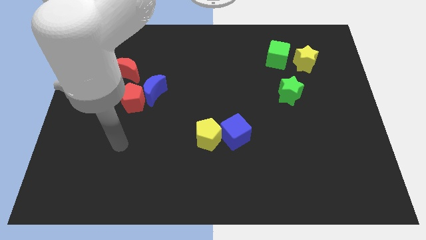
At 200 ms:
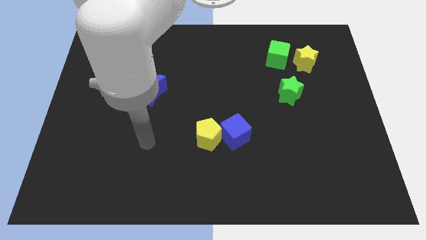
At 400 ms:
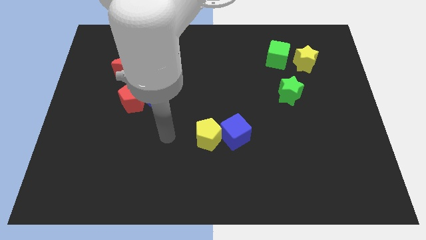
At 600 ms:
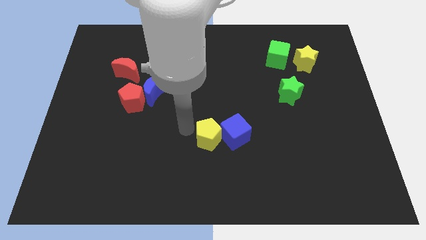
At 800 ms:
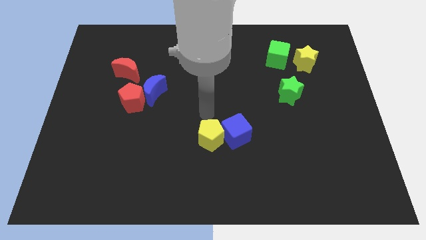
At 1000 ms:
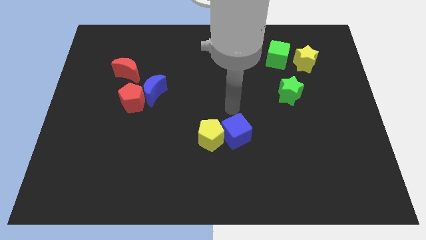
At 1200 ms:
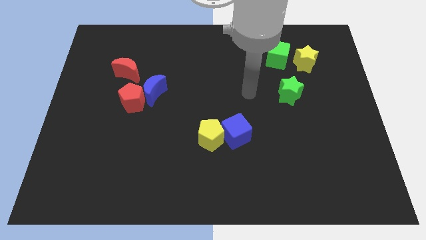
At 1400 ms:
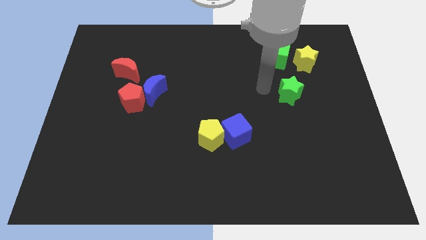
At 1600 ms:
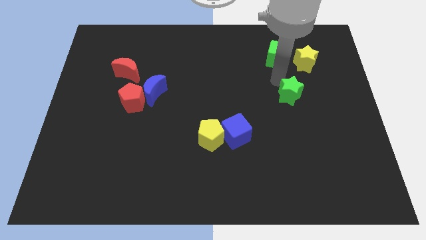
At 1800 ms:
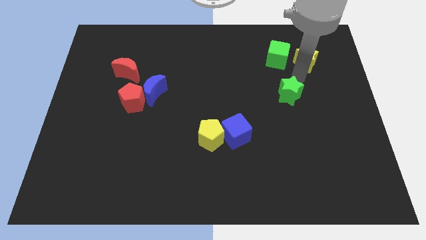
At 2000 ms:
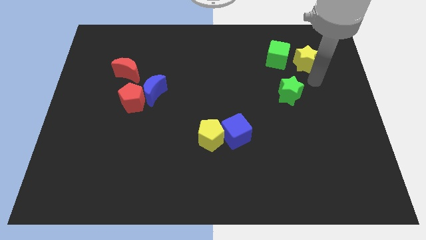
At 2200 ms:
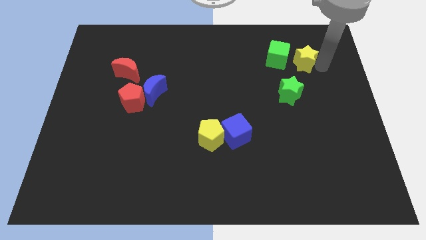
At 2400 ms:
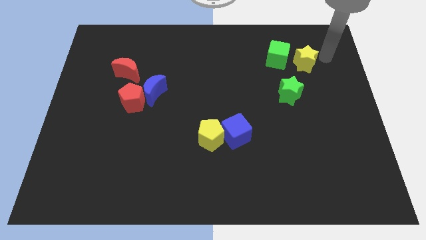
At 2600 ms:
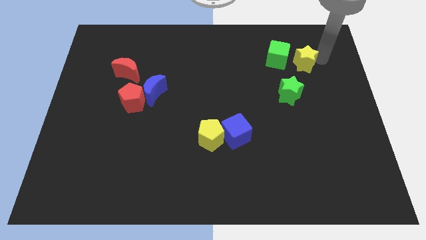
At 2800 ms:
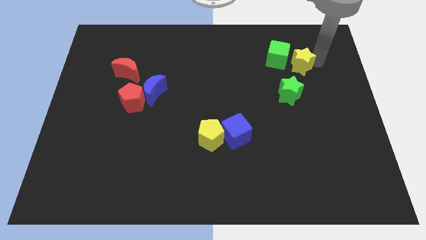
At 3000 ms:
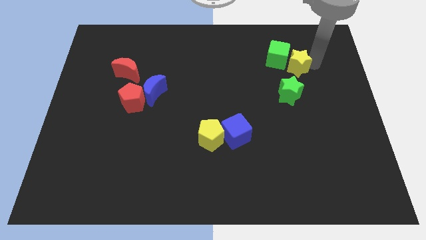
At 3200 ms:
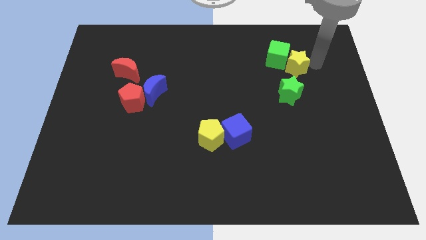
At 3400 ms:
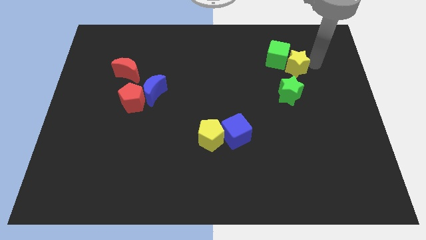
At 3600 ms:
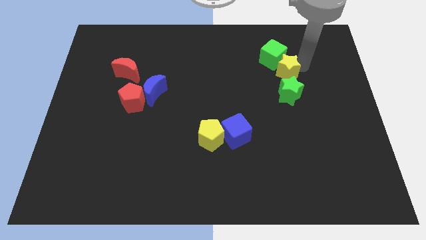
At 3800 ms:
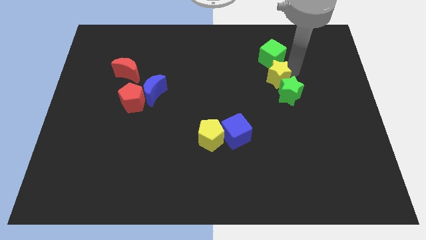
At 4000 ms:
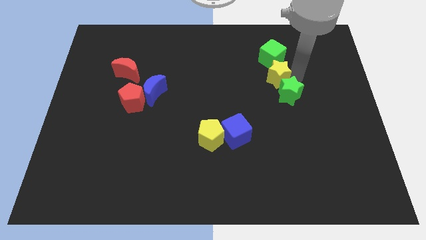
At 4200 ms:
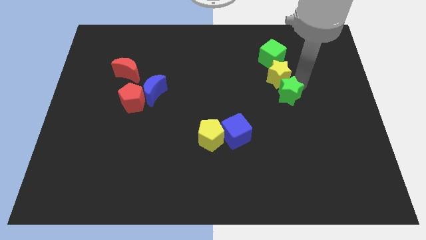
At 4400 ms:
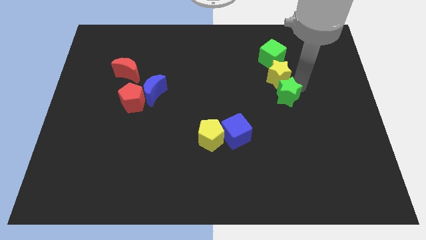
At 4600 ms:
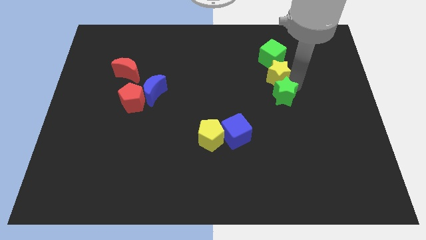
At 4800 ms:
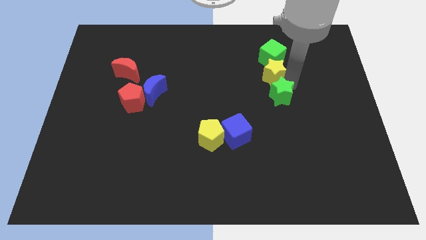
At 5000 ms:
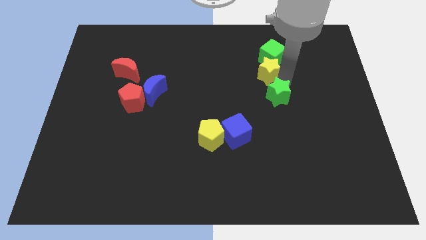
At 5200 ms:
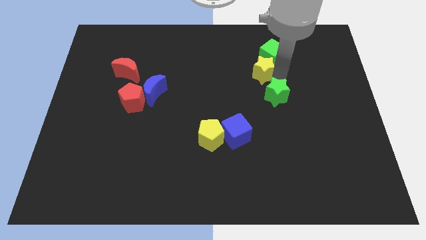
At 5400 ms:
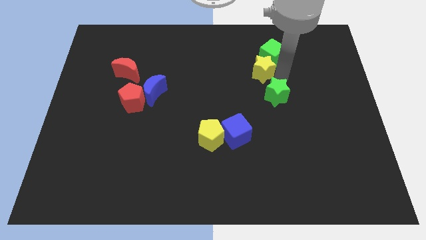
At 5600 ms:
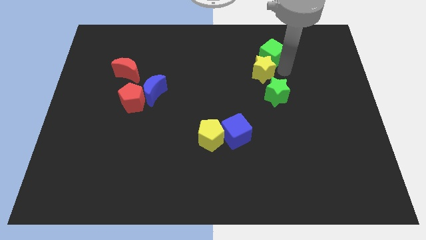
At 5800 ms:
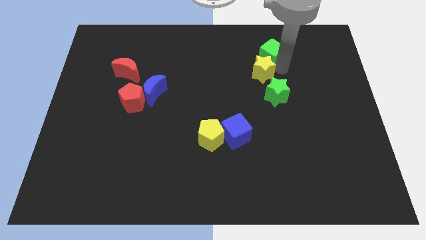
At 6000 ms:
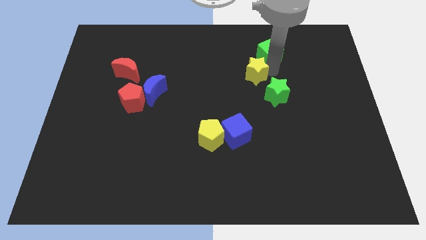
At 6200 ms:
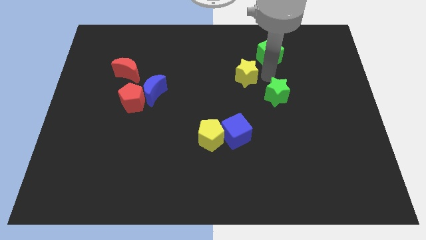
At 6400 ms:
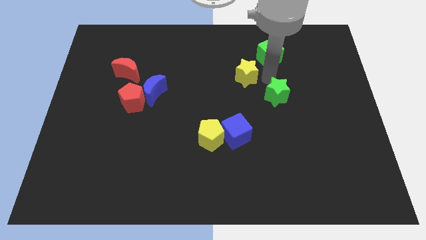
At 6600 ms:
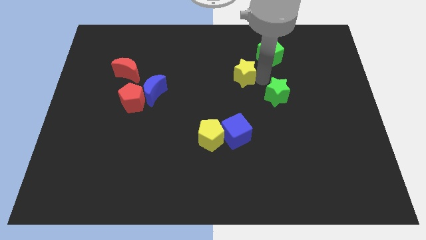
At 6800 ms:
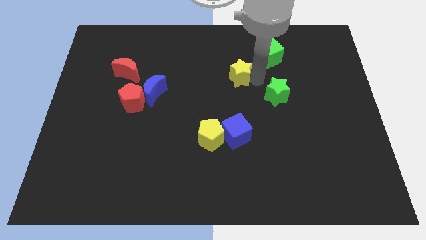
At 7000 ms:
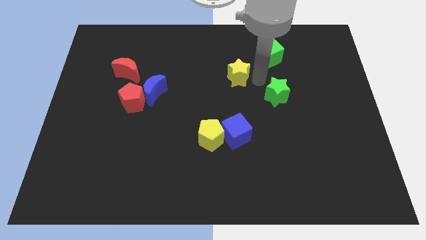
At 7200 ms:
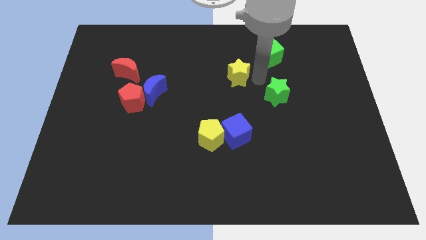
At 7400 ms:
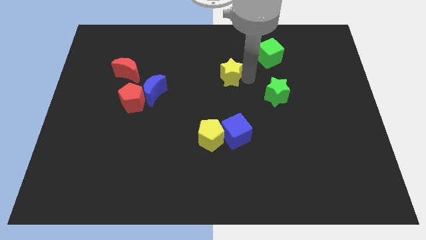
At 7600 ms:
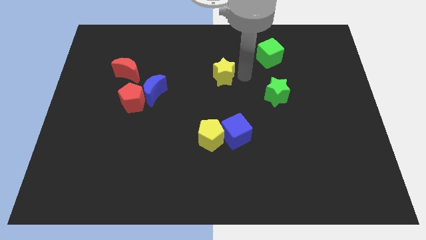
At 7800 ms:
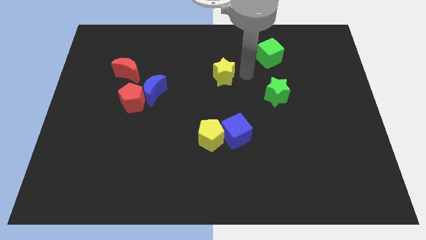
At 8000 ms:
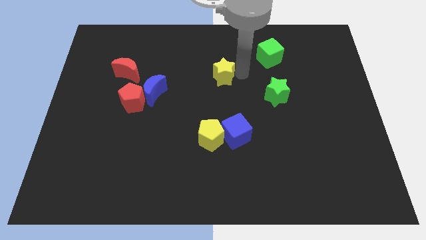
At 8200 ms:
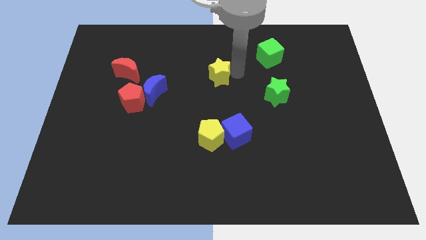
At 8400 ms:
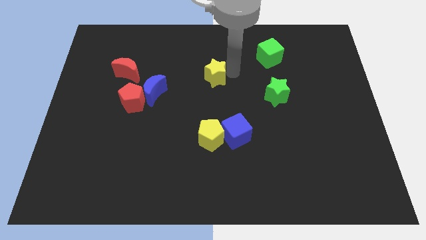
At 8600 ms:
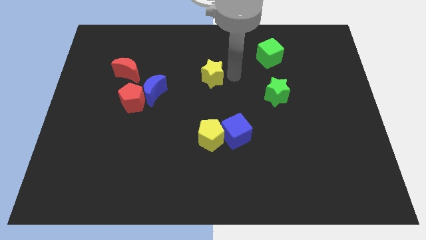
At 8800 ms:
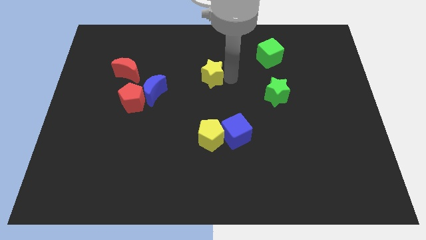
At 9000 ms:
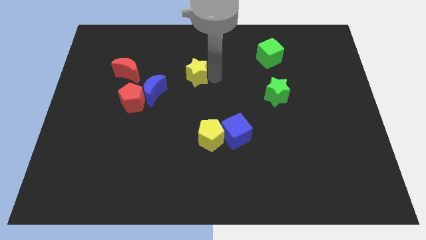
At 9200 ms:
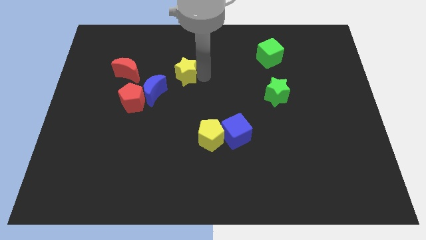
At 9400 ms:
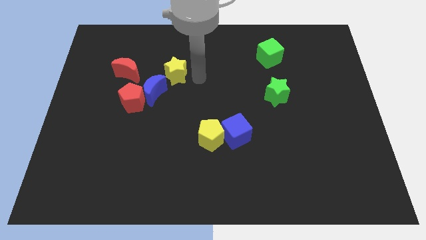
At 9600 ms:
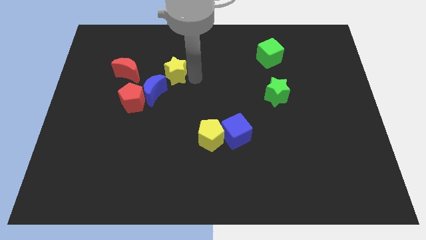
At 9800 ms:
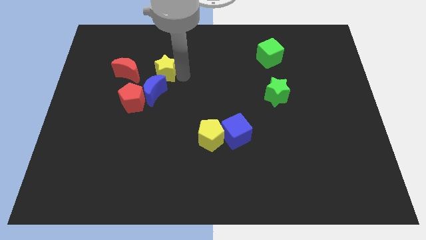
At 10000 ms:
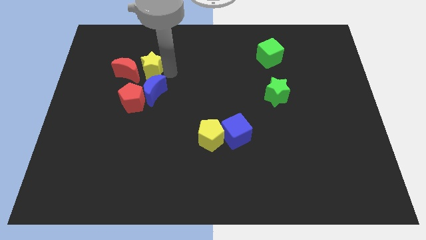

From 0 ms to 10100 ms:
move the yellow star to the red moon

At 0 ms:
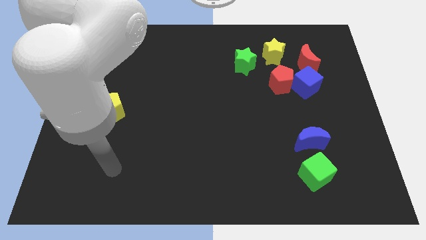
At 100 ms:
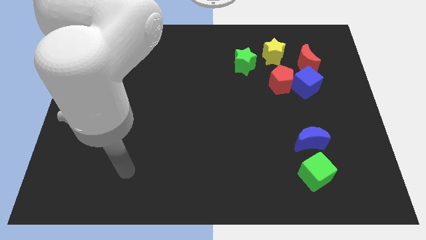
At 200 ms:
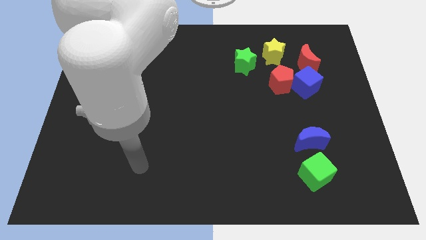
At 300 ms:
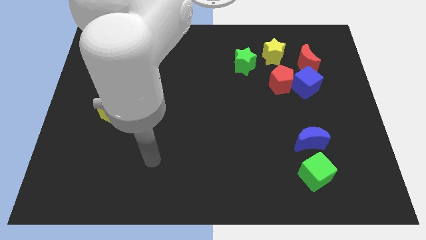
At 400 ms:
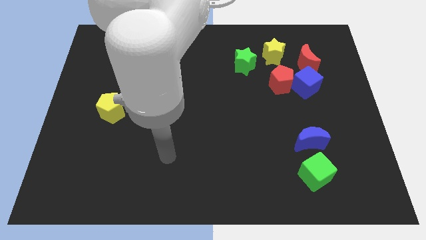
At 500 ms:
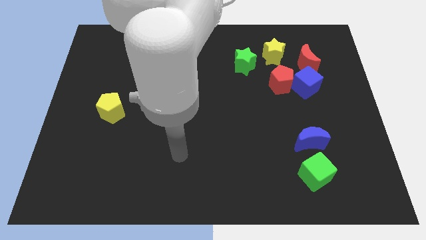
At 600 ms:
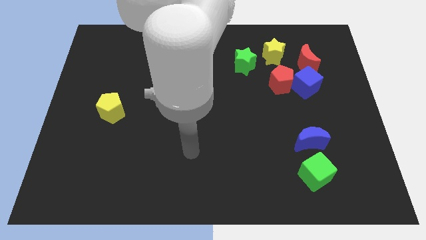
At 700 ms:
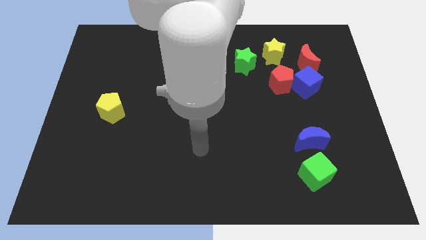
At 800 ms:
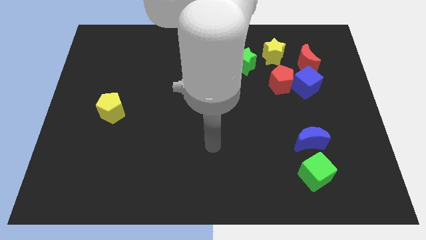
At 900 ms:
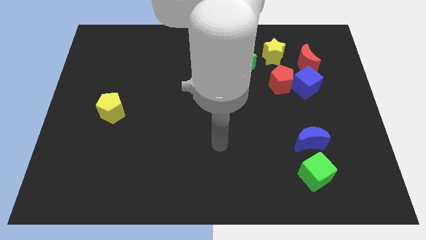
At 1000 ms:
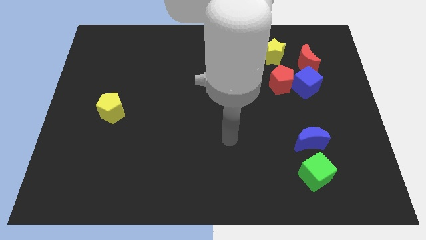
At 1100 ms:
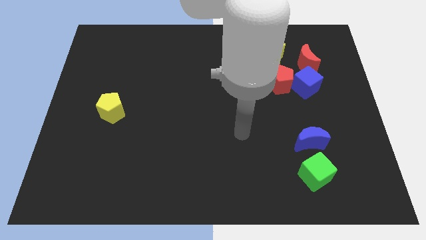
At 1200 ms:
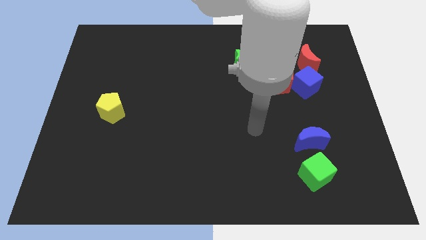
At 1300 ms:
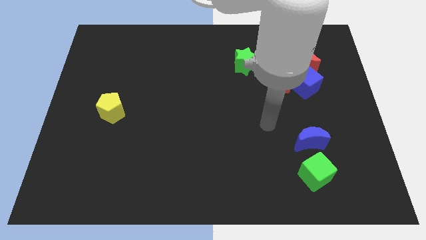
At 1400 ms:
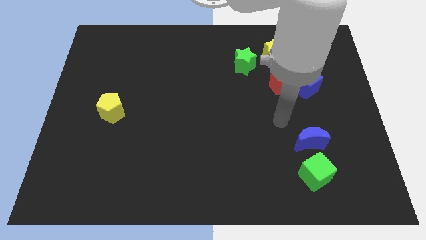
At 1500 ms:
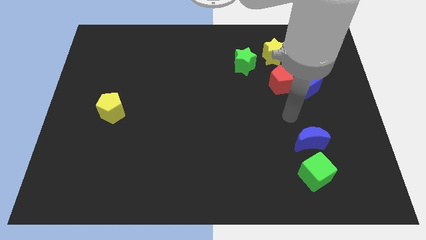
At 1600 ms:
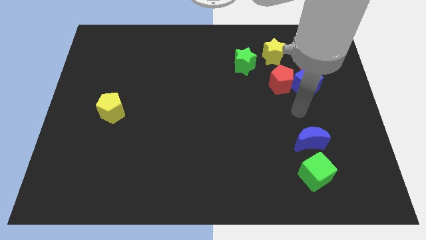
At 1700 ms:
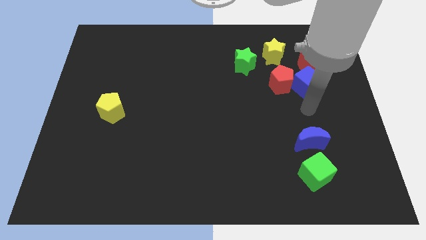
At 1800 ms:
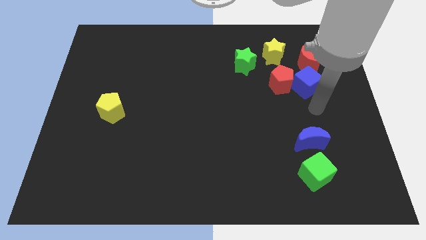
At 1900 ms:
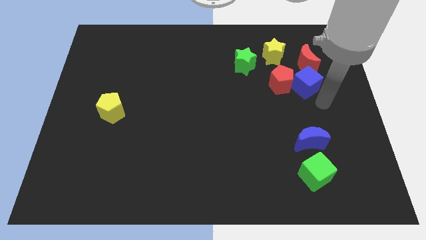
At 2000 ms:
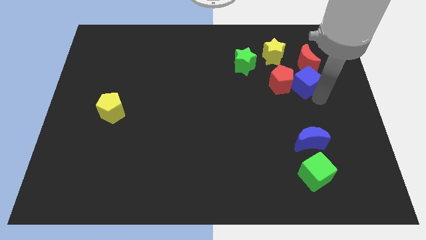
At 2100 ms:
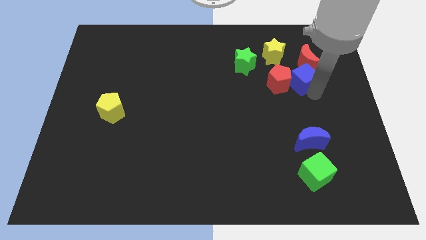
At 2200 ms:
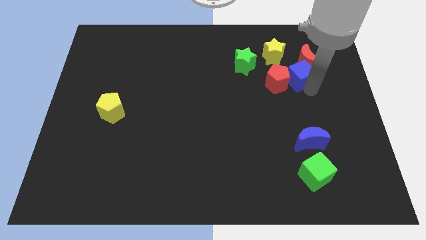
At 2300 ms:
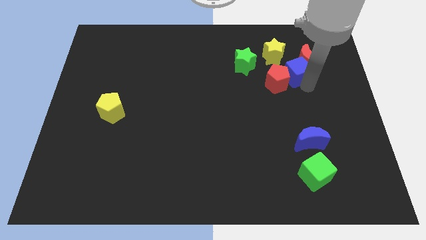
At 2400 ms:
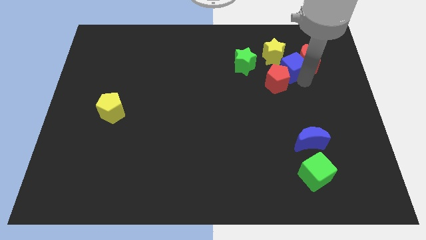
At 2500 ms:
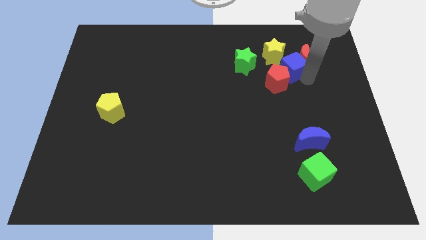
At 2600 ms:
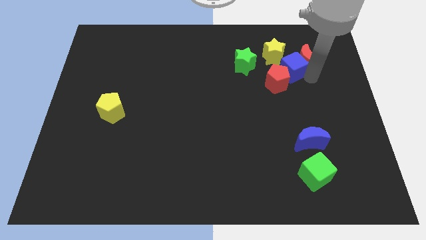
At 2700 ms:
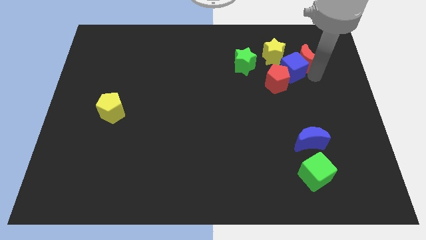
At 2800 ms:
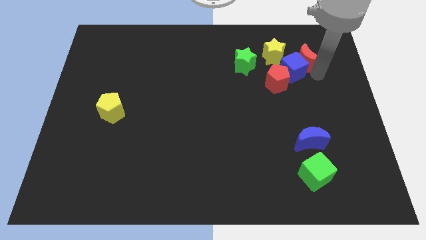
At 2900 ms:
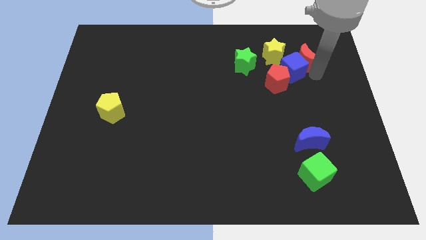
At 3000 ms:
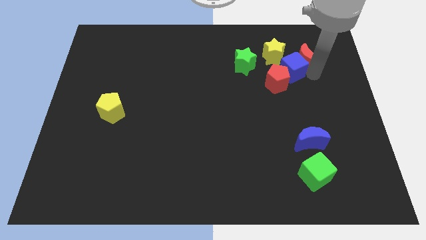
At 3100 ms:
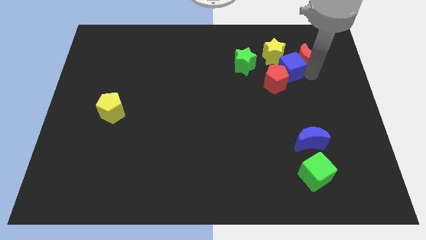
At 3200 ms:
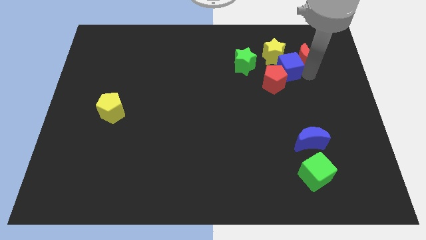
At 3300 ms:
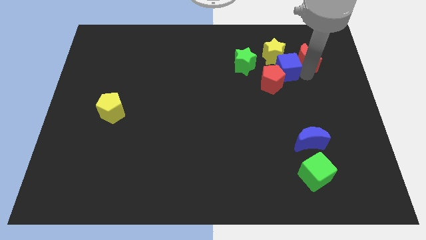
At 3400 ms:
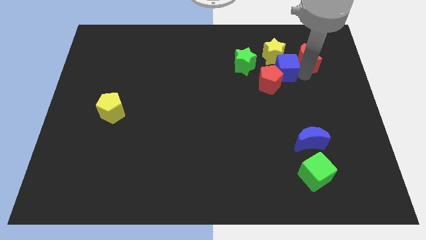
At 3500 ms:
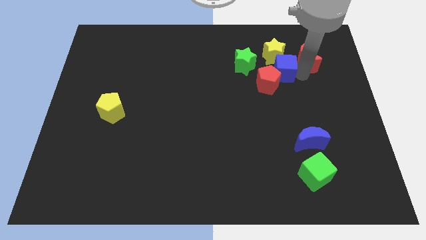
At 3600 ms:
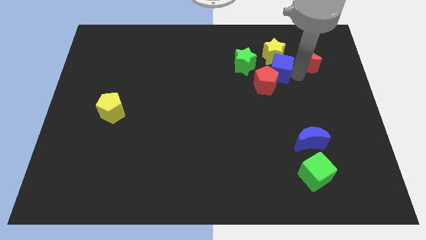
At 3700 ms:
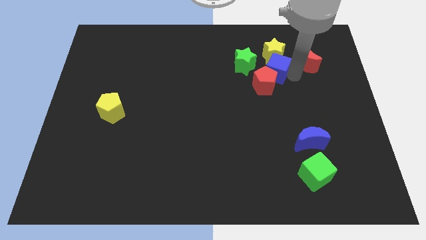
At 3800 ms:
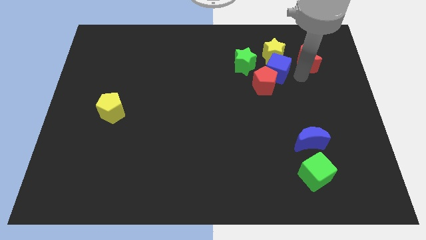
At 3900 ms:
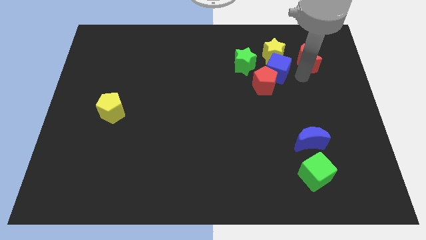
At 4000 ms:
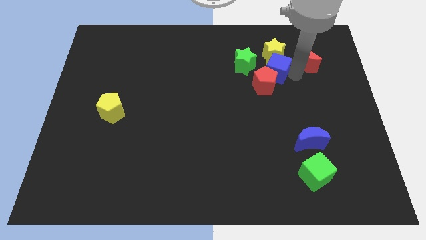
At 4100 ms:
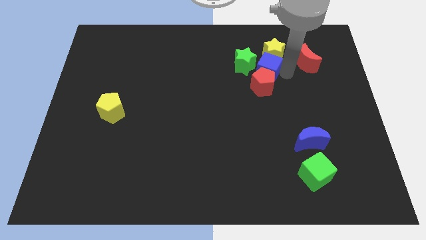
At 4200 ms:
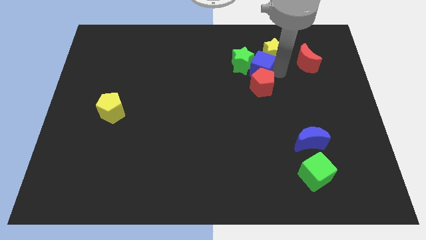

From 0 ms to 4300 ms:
push the blue cube next to the green star
